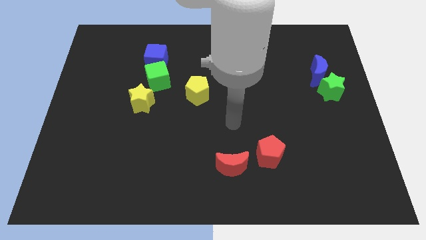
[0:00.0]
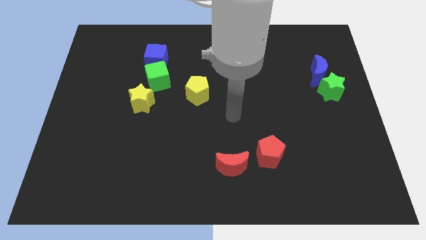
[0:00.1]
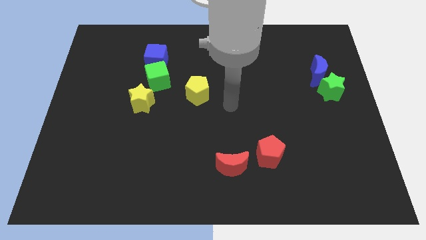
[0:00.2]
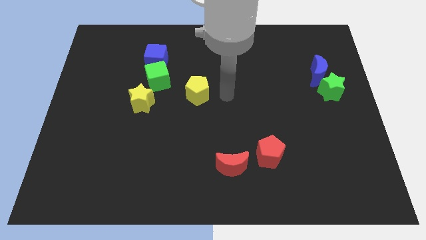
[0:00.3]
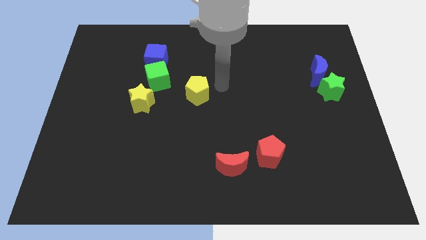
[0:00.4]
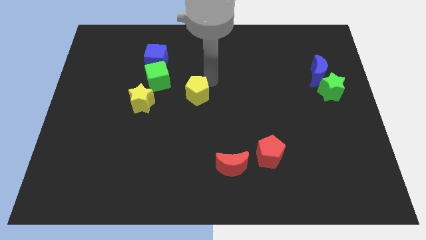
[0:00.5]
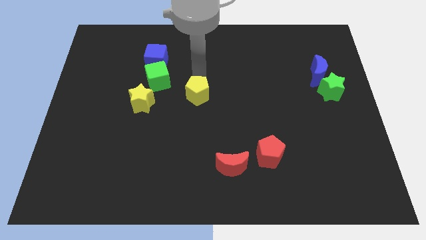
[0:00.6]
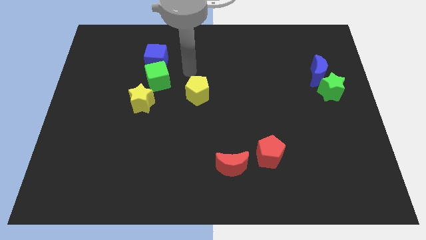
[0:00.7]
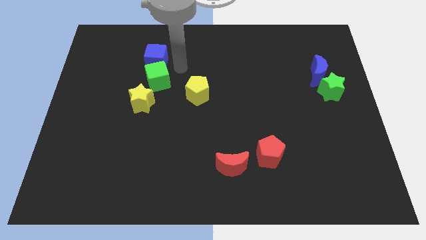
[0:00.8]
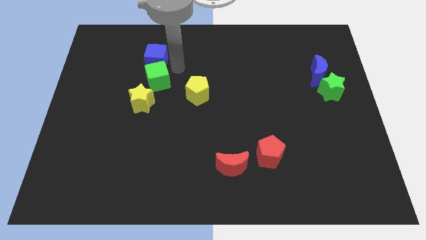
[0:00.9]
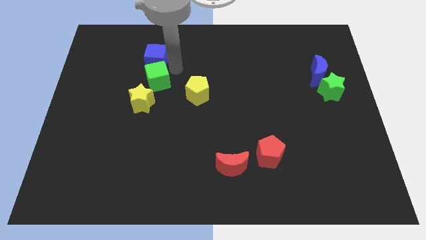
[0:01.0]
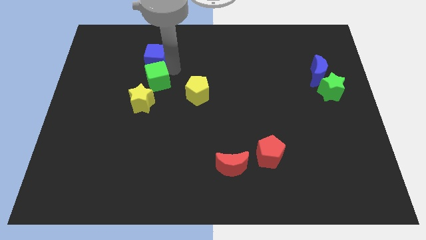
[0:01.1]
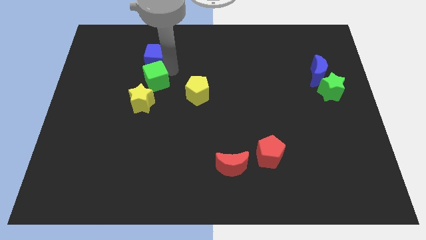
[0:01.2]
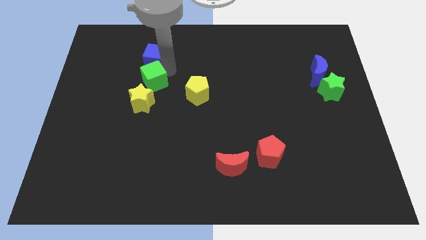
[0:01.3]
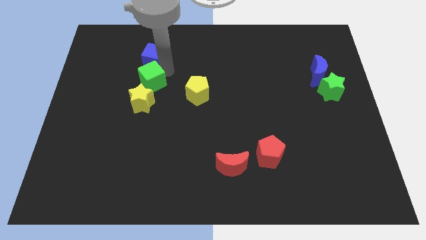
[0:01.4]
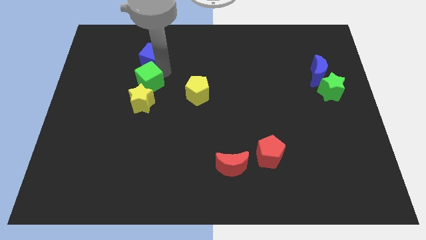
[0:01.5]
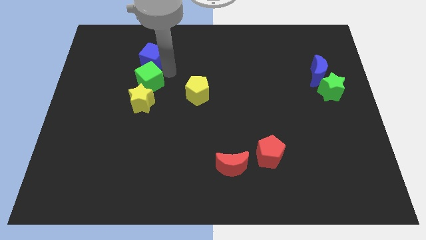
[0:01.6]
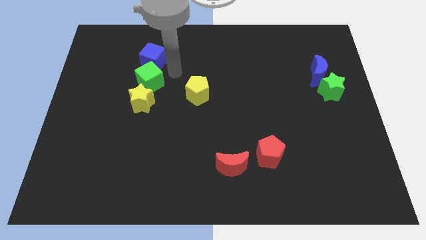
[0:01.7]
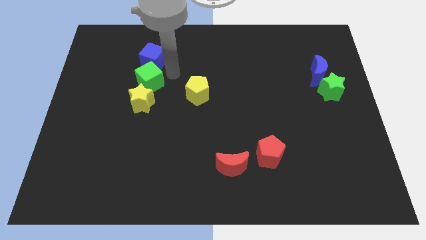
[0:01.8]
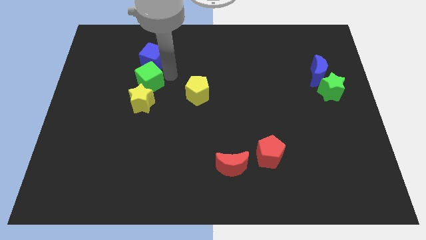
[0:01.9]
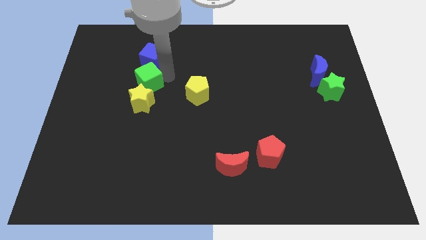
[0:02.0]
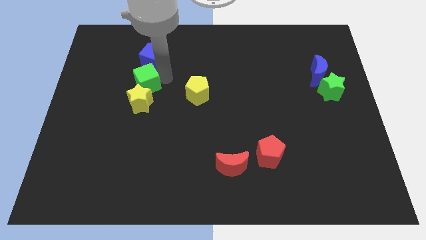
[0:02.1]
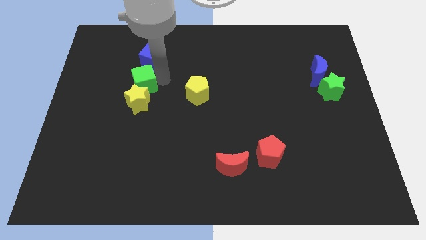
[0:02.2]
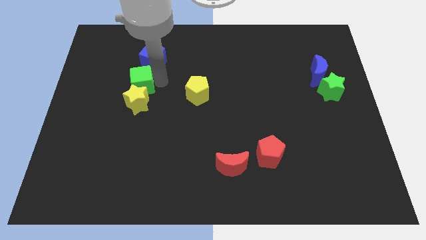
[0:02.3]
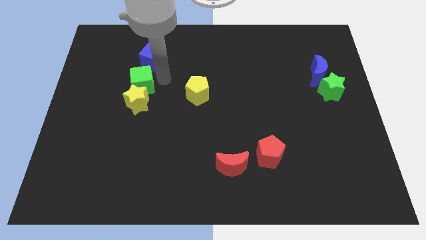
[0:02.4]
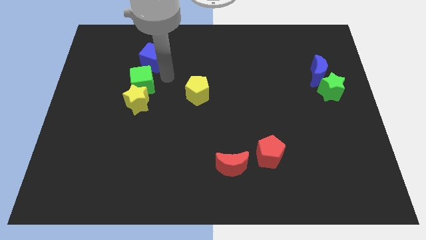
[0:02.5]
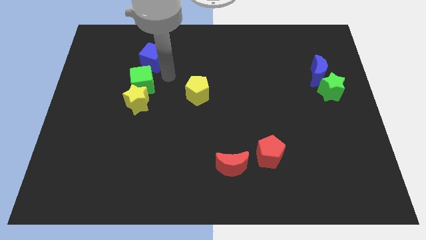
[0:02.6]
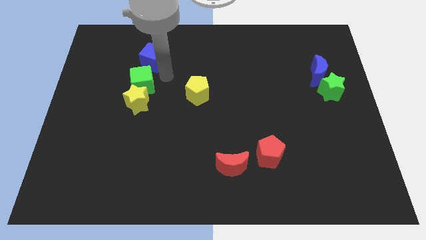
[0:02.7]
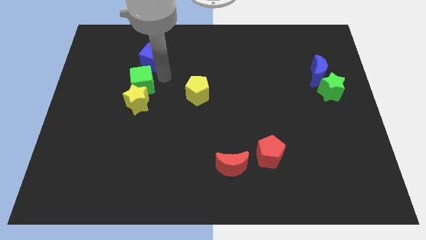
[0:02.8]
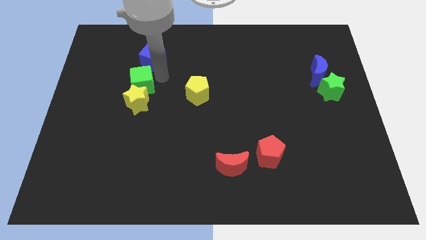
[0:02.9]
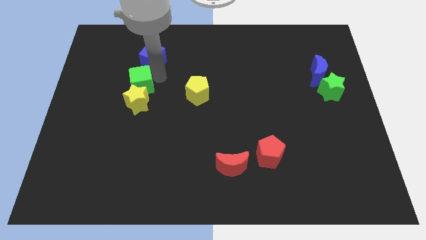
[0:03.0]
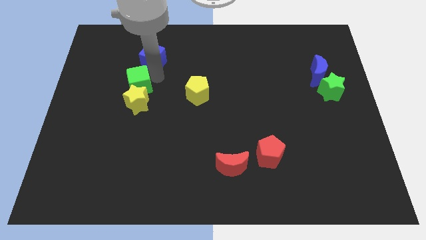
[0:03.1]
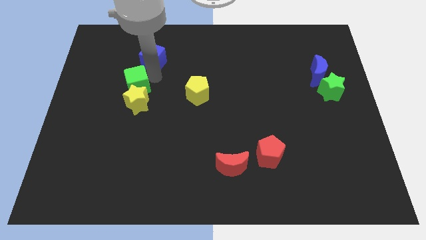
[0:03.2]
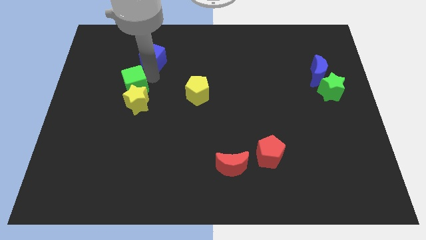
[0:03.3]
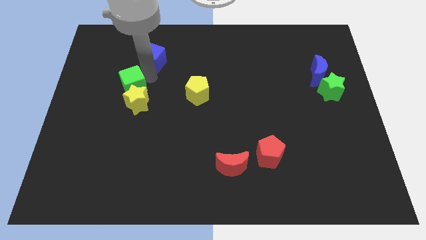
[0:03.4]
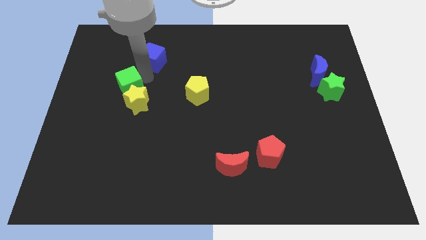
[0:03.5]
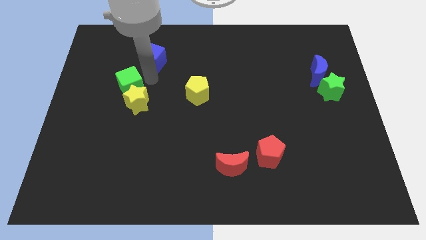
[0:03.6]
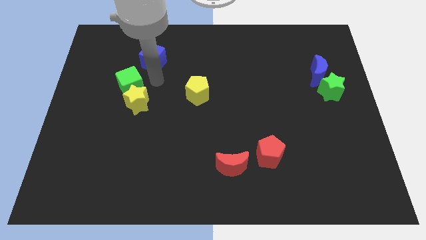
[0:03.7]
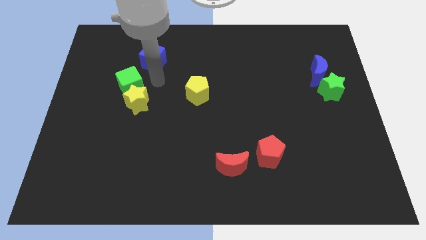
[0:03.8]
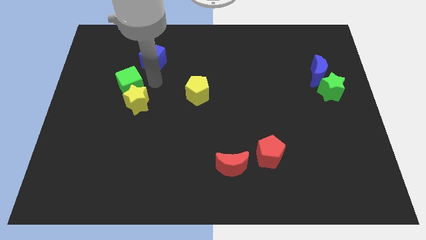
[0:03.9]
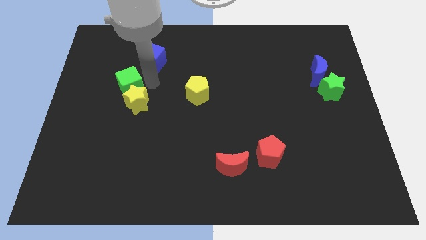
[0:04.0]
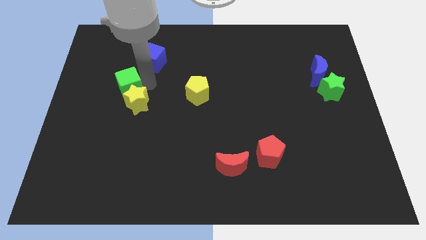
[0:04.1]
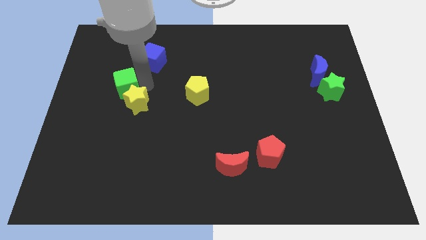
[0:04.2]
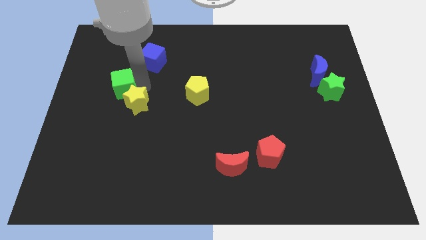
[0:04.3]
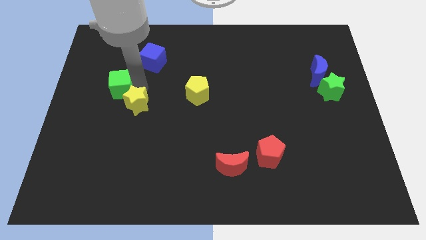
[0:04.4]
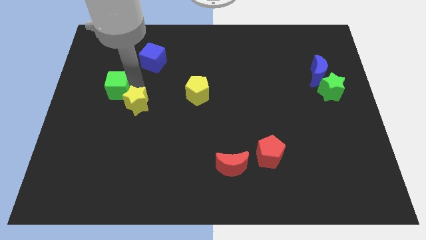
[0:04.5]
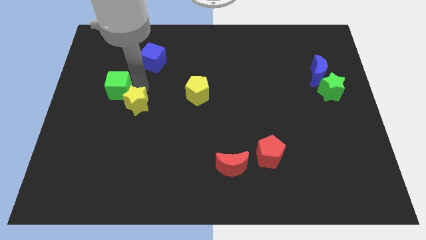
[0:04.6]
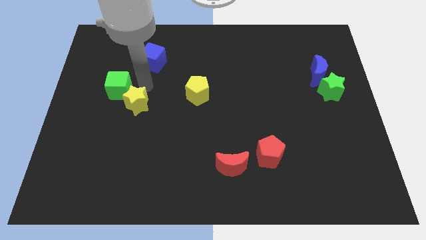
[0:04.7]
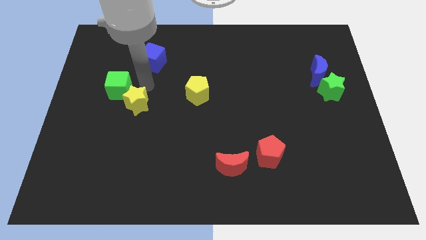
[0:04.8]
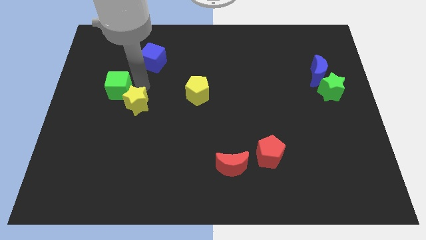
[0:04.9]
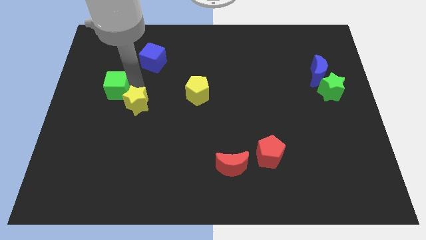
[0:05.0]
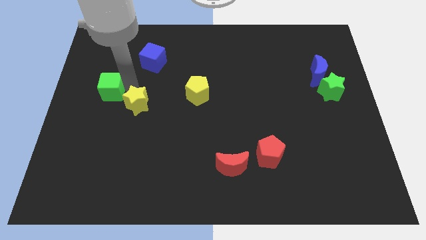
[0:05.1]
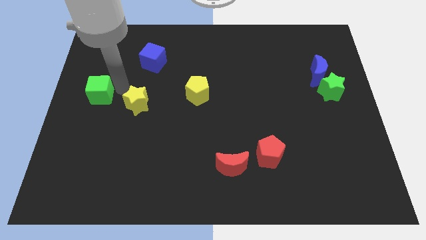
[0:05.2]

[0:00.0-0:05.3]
slide the green cube to the left side
